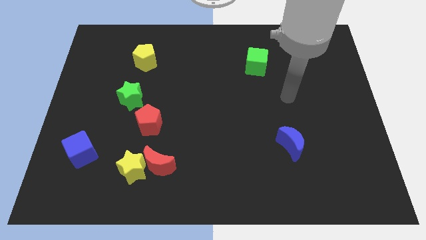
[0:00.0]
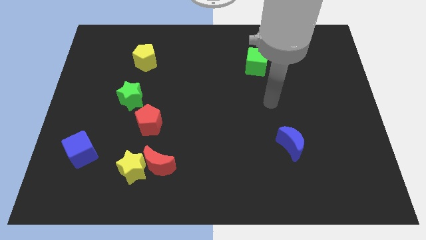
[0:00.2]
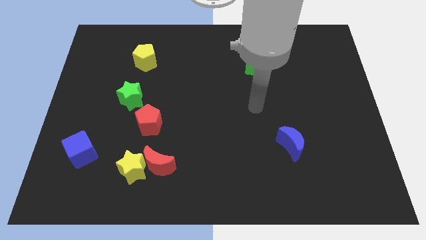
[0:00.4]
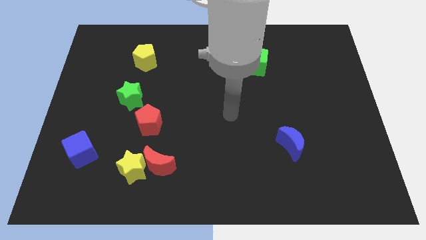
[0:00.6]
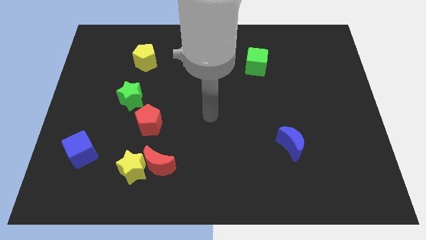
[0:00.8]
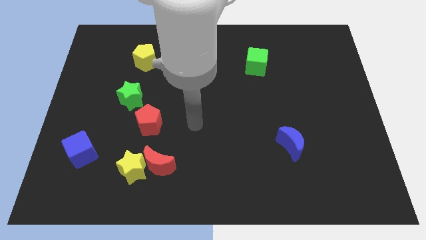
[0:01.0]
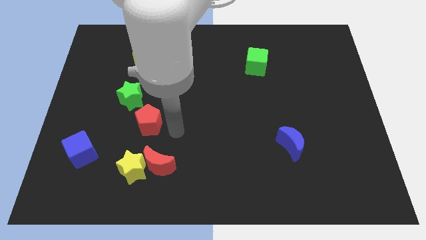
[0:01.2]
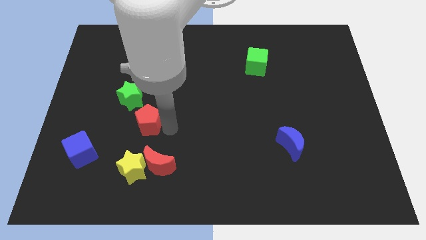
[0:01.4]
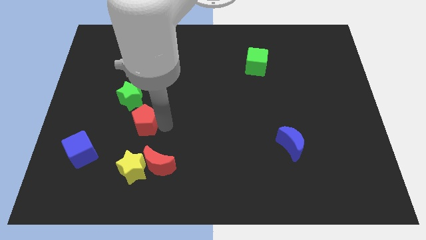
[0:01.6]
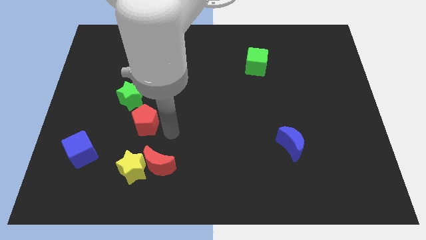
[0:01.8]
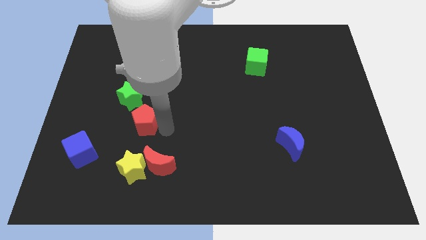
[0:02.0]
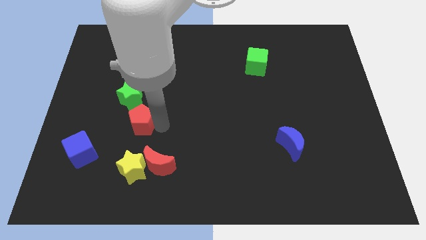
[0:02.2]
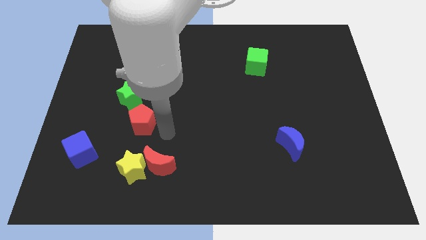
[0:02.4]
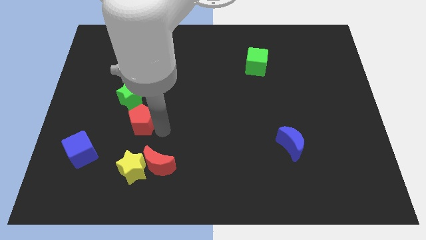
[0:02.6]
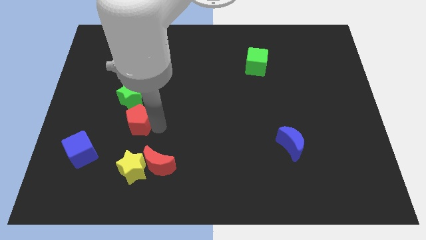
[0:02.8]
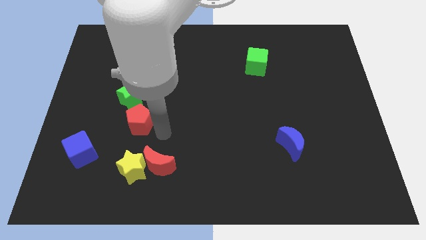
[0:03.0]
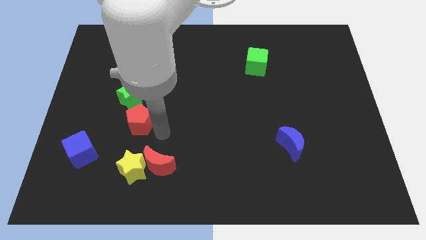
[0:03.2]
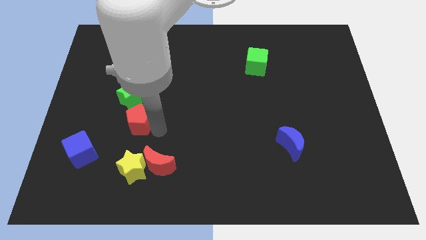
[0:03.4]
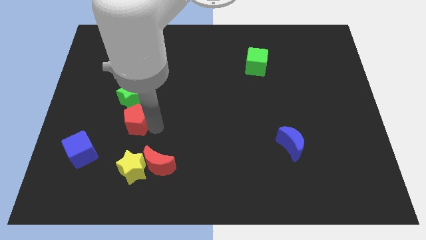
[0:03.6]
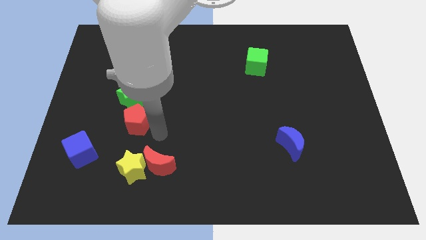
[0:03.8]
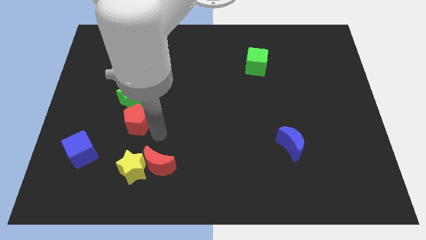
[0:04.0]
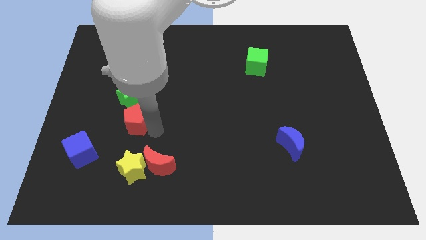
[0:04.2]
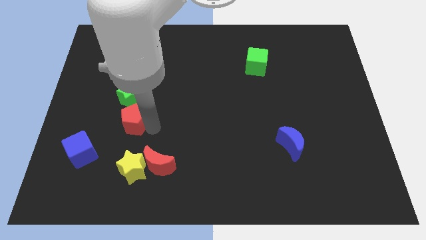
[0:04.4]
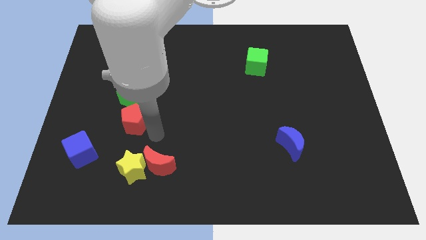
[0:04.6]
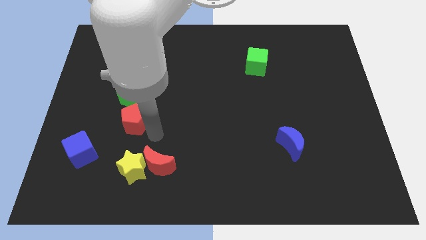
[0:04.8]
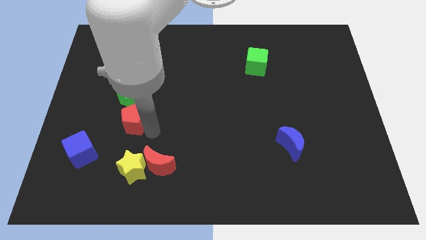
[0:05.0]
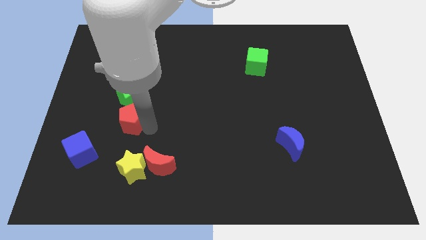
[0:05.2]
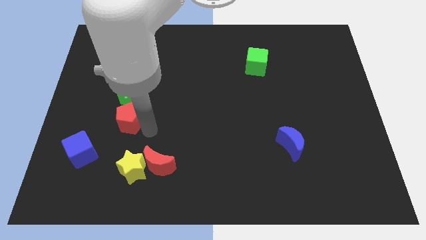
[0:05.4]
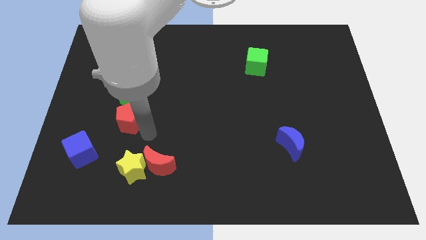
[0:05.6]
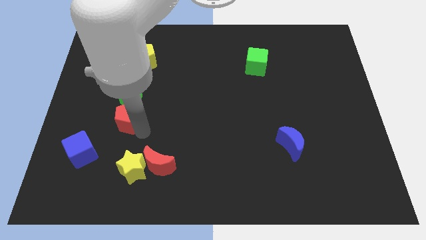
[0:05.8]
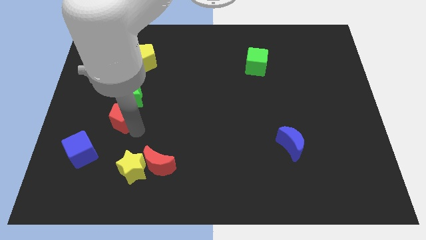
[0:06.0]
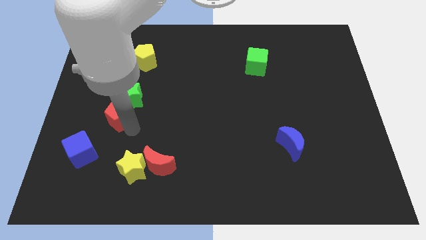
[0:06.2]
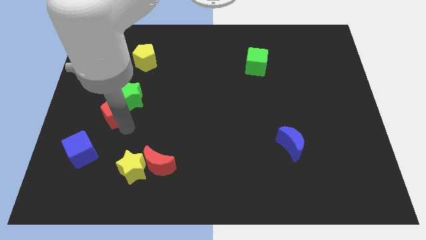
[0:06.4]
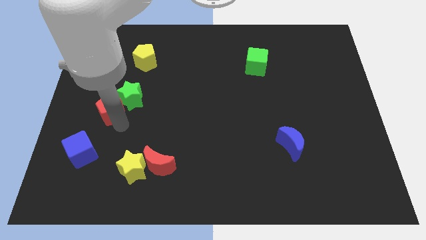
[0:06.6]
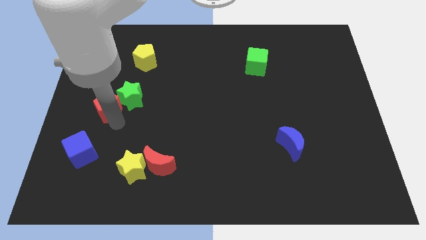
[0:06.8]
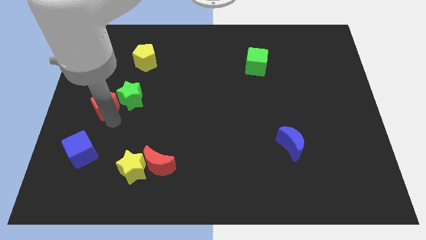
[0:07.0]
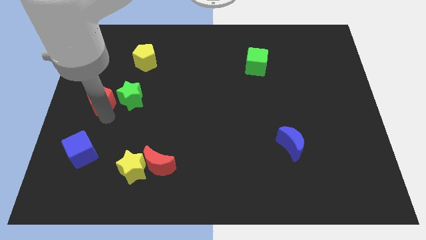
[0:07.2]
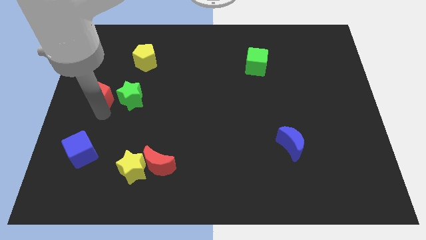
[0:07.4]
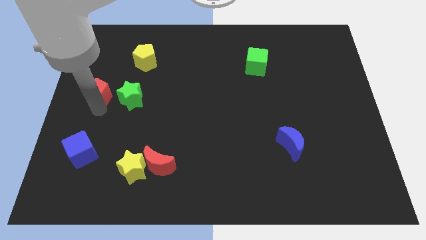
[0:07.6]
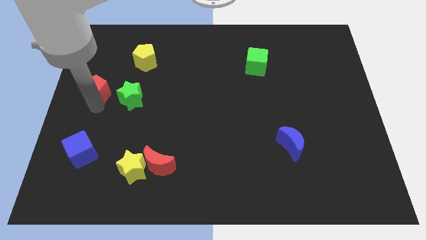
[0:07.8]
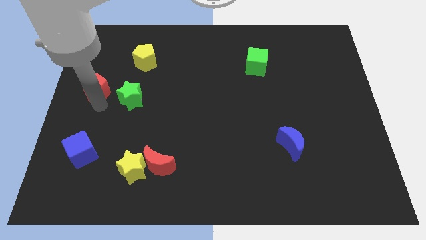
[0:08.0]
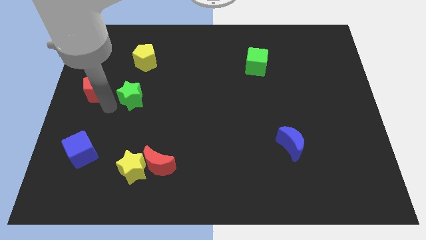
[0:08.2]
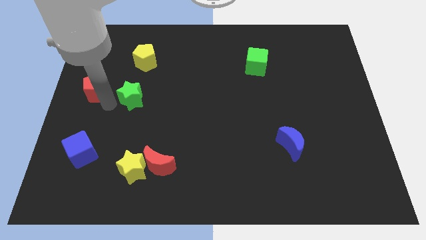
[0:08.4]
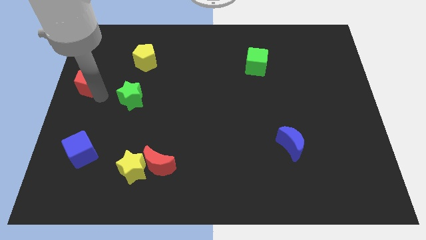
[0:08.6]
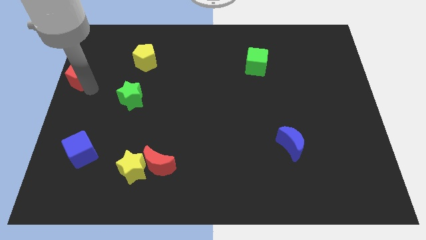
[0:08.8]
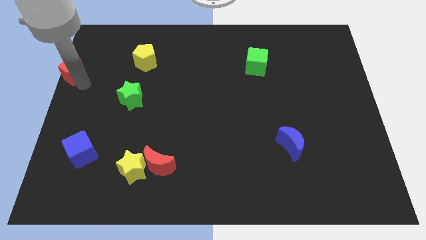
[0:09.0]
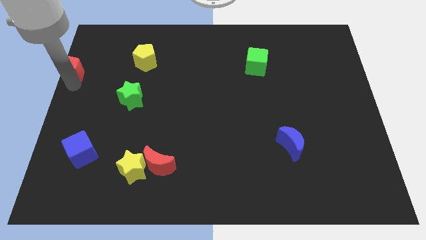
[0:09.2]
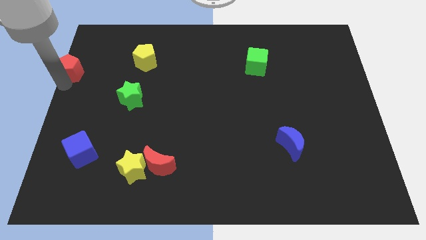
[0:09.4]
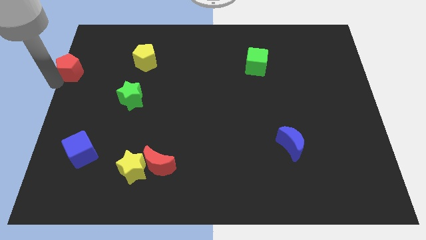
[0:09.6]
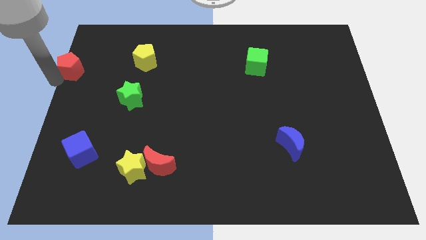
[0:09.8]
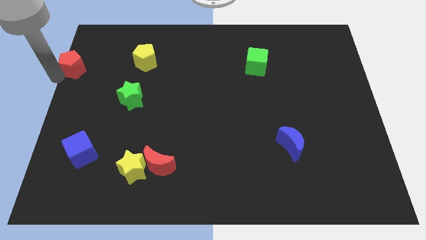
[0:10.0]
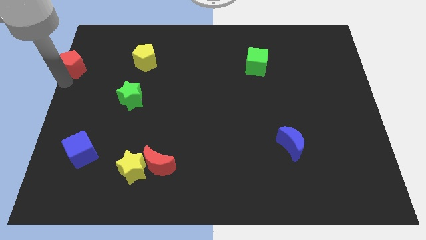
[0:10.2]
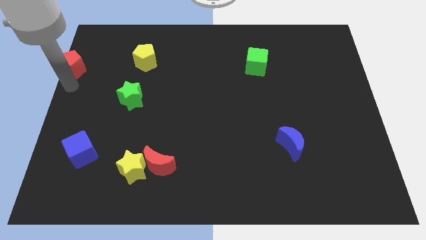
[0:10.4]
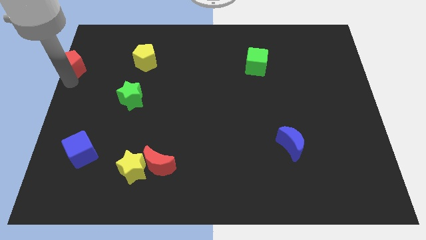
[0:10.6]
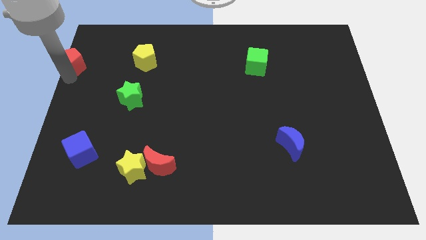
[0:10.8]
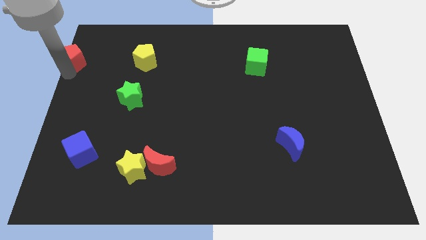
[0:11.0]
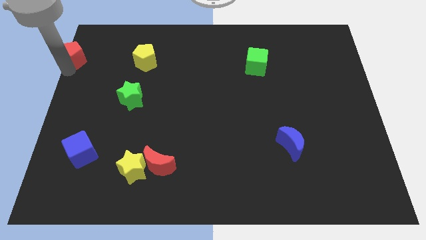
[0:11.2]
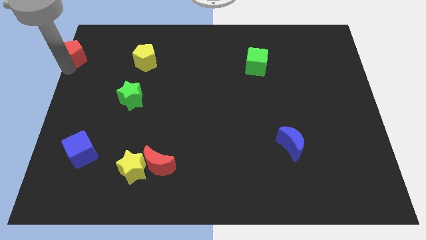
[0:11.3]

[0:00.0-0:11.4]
slide the red pentagon to the upper left corner

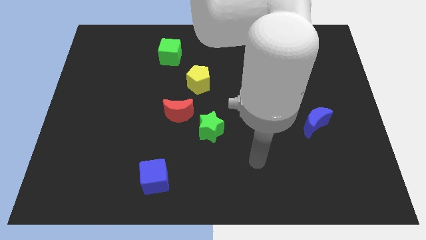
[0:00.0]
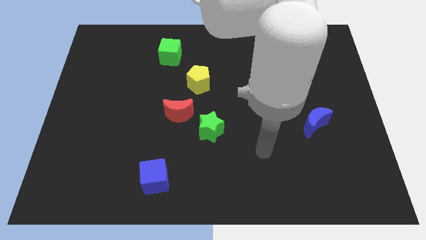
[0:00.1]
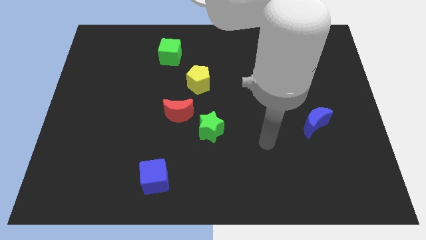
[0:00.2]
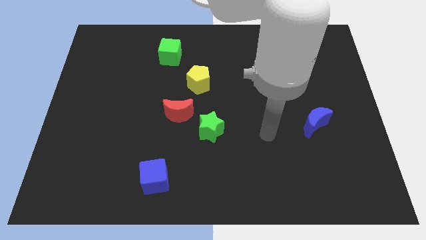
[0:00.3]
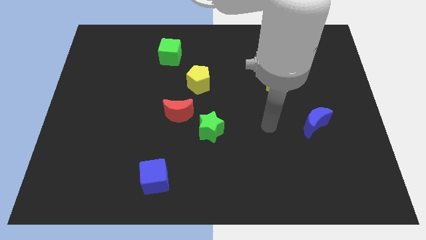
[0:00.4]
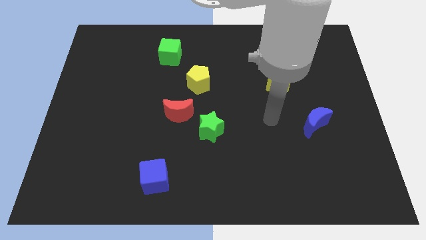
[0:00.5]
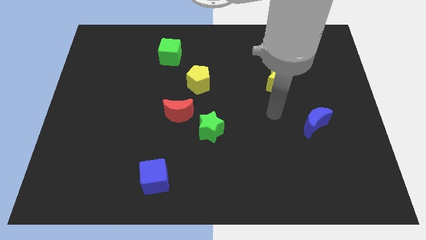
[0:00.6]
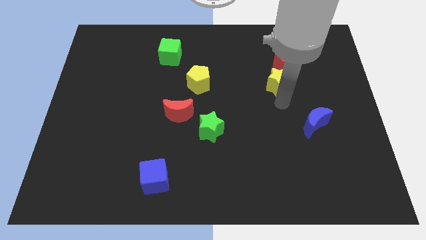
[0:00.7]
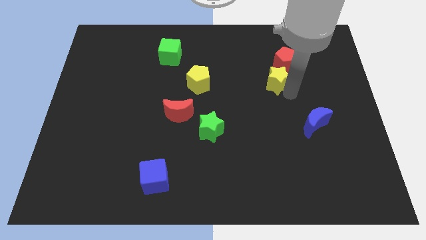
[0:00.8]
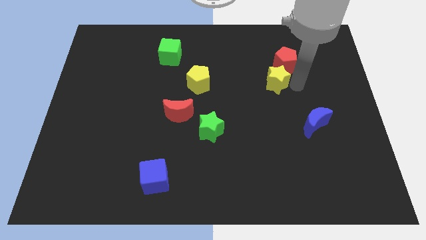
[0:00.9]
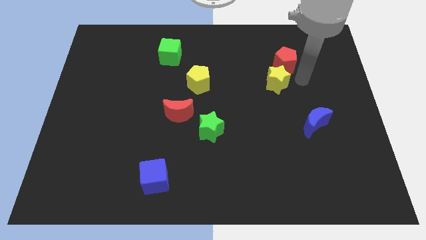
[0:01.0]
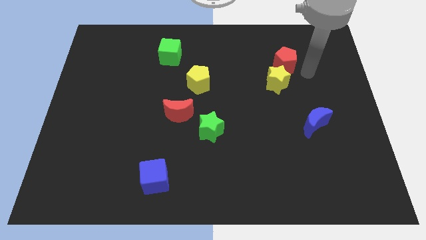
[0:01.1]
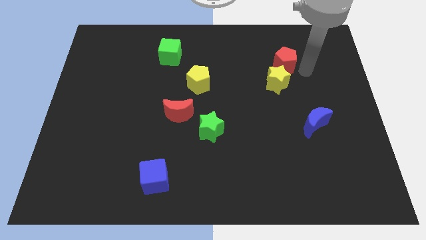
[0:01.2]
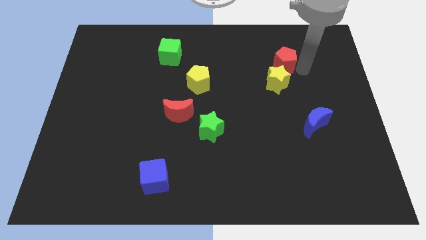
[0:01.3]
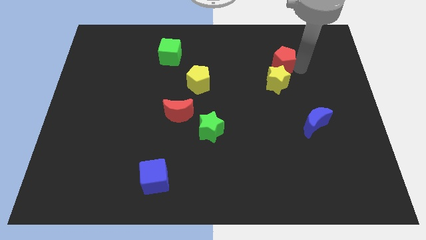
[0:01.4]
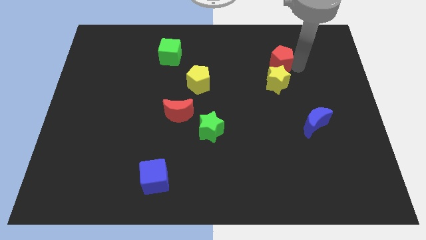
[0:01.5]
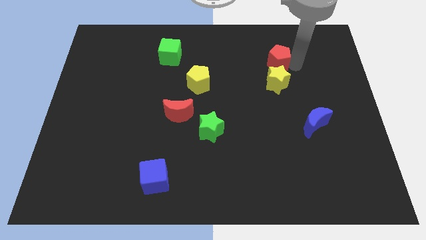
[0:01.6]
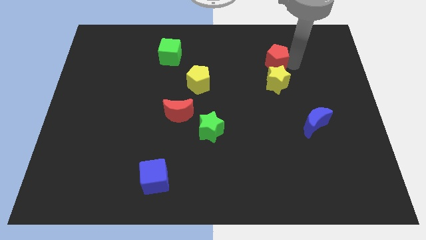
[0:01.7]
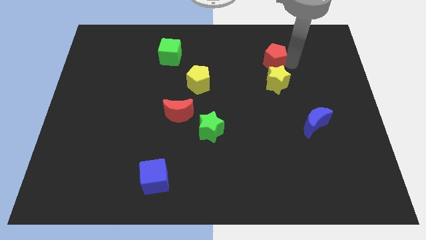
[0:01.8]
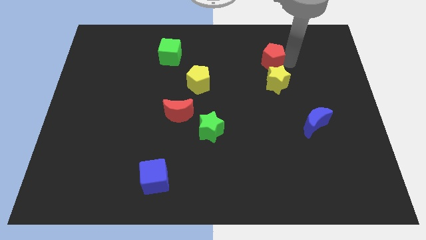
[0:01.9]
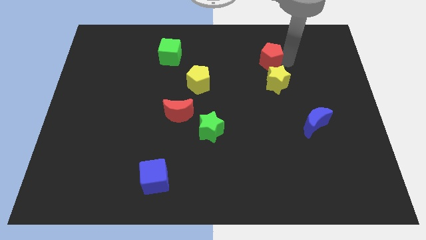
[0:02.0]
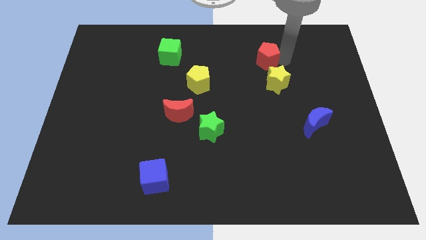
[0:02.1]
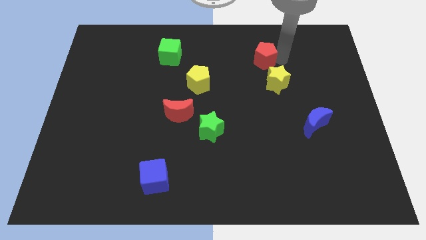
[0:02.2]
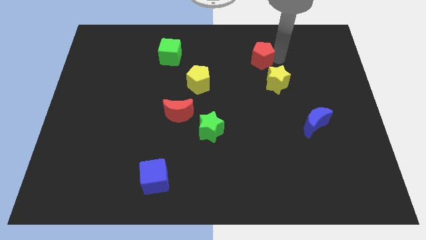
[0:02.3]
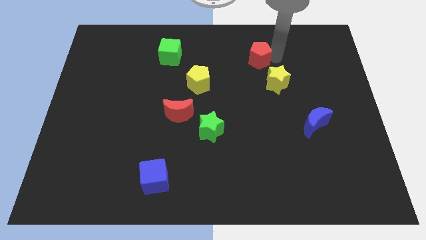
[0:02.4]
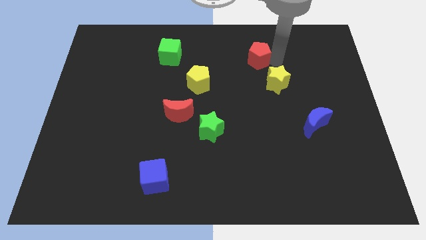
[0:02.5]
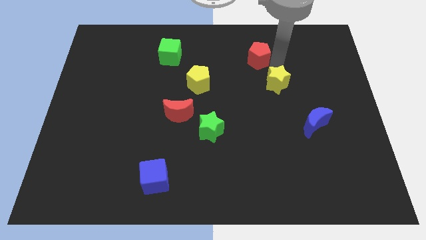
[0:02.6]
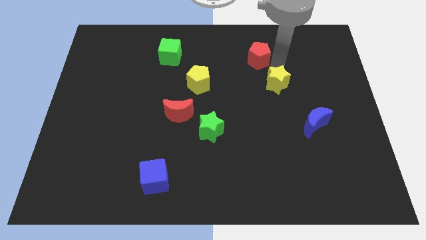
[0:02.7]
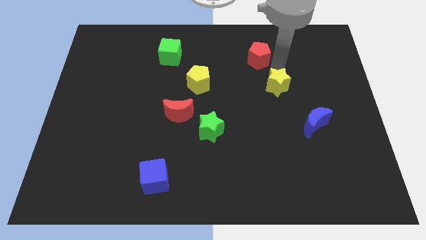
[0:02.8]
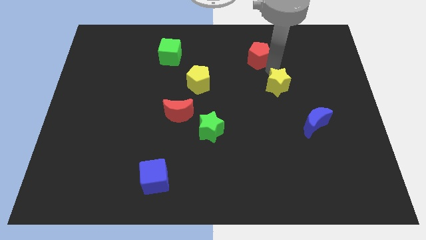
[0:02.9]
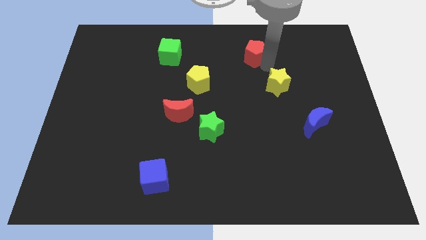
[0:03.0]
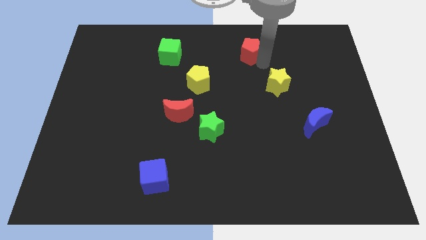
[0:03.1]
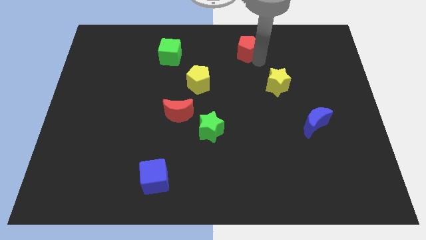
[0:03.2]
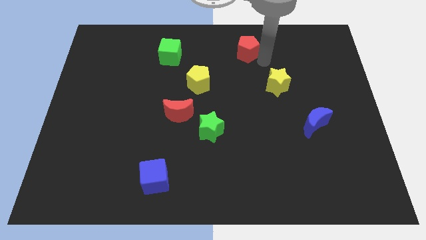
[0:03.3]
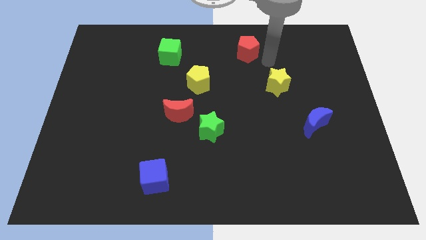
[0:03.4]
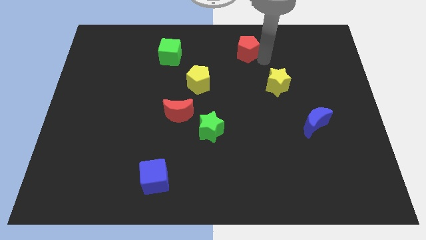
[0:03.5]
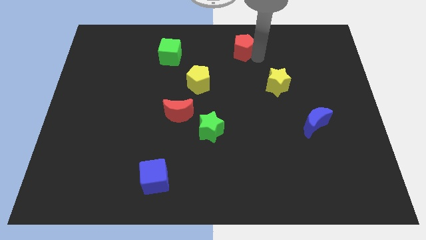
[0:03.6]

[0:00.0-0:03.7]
slide the red pentagon to the top
